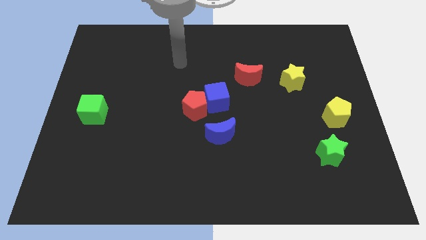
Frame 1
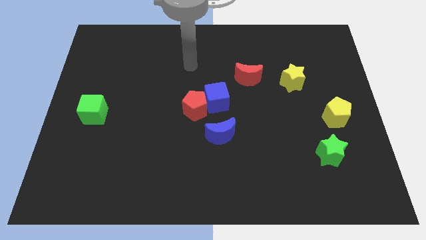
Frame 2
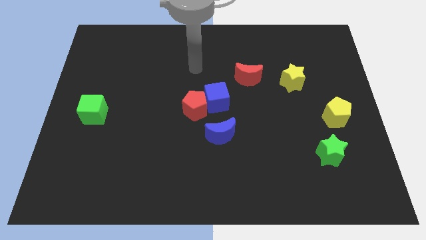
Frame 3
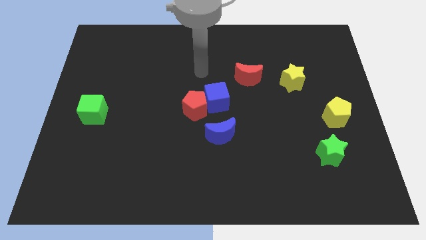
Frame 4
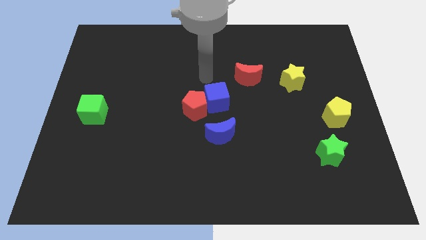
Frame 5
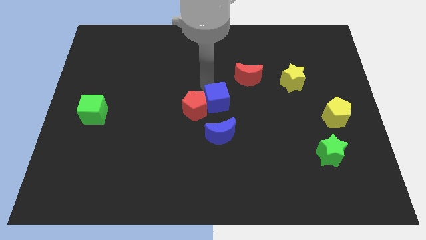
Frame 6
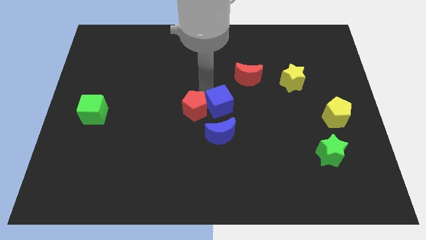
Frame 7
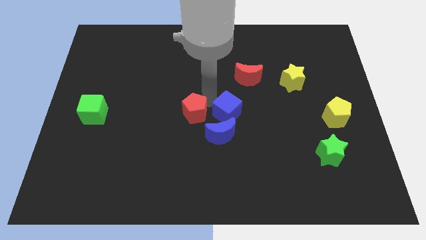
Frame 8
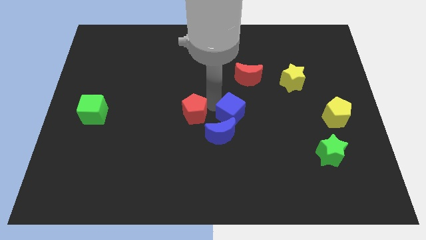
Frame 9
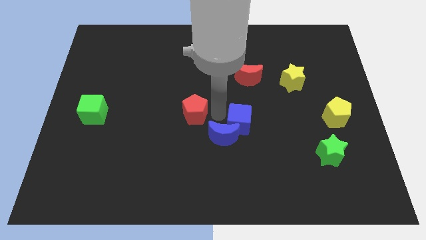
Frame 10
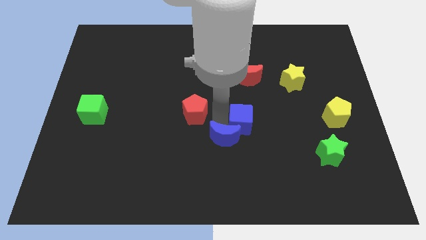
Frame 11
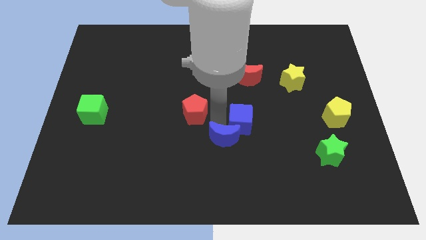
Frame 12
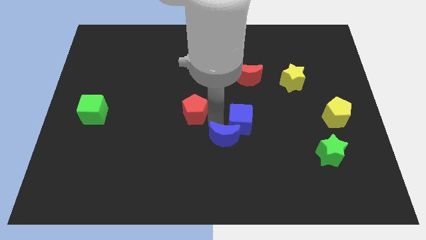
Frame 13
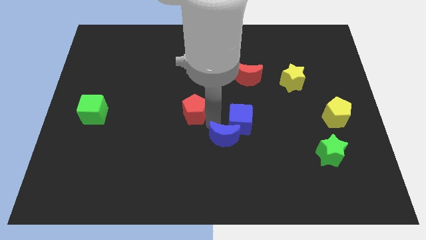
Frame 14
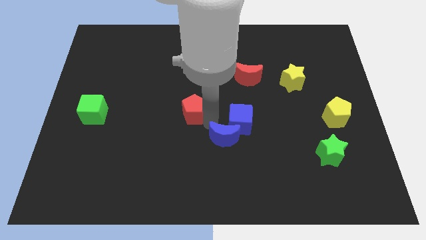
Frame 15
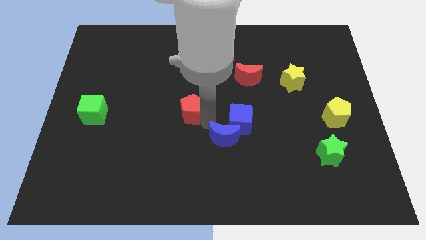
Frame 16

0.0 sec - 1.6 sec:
separate the red pentagon from the blue cube and blue moon

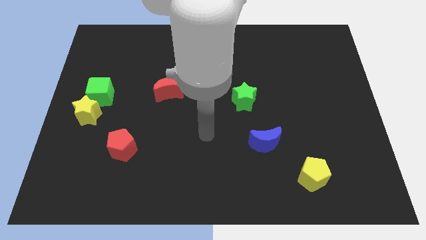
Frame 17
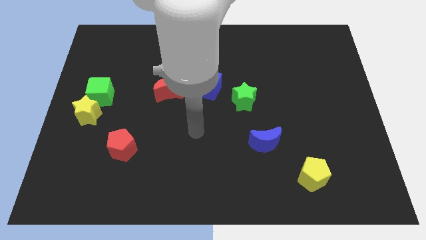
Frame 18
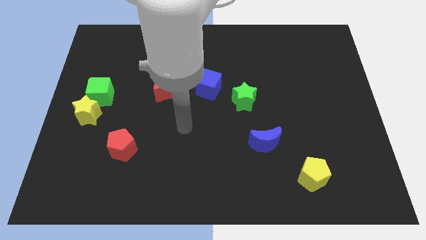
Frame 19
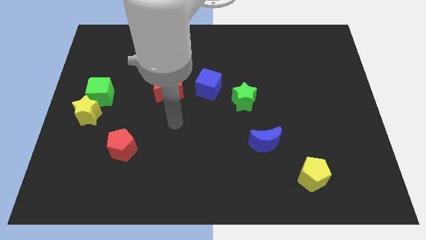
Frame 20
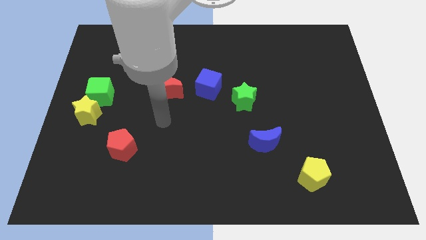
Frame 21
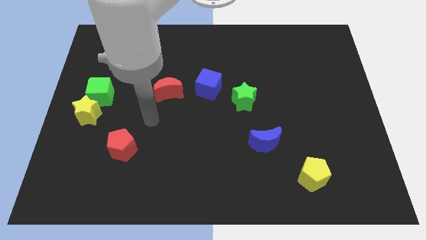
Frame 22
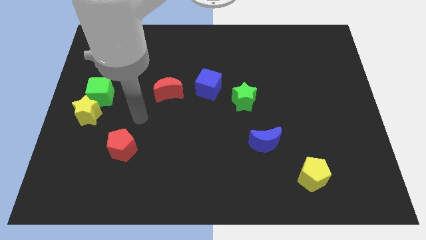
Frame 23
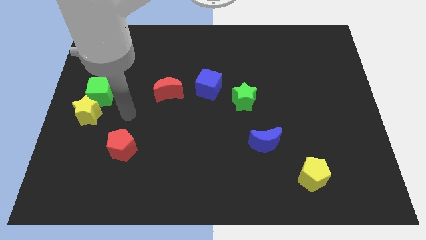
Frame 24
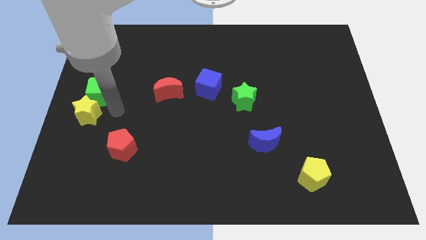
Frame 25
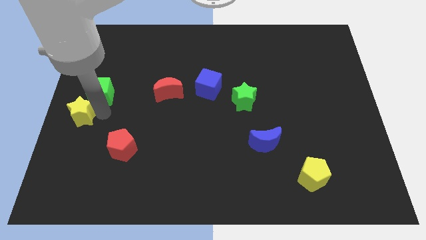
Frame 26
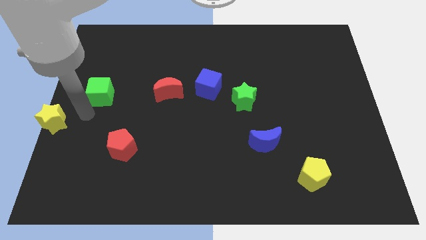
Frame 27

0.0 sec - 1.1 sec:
move the green cube away from the yellow star

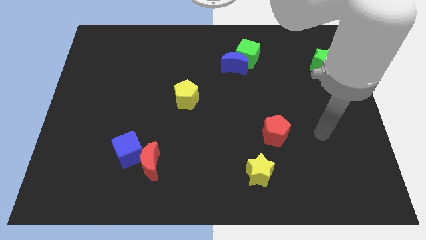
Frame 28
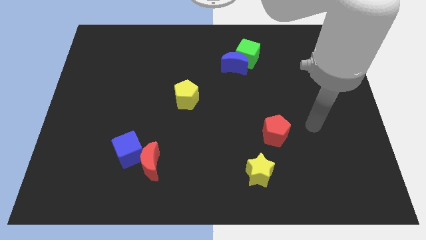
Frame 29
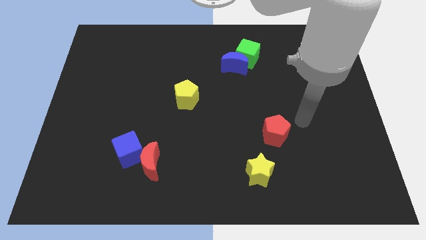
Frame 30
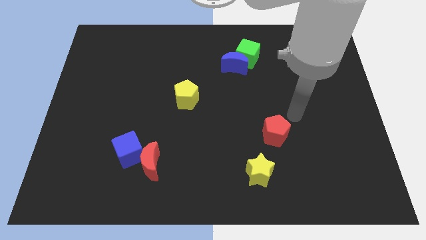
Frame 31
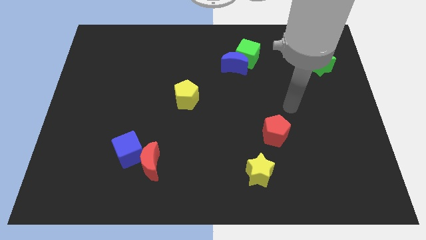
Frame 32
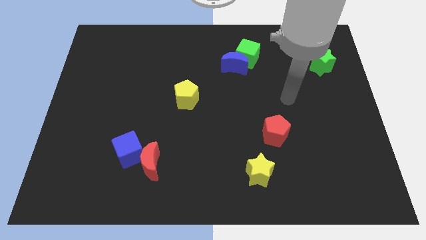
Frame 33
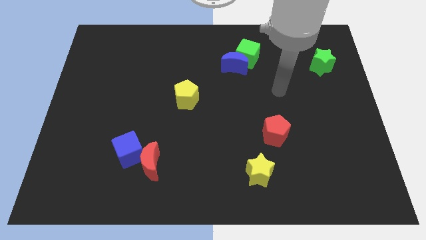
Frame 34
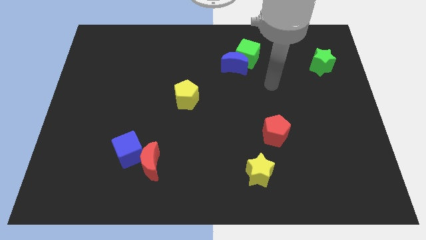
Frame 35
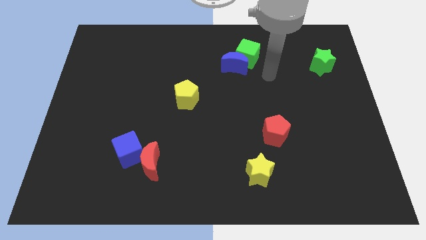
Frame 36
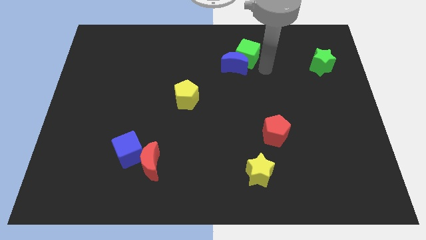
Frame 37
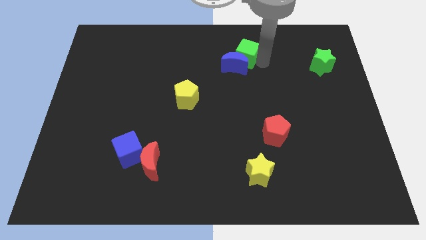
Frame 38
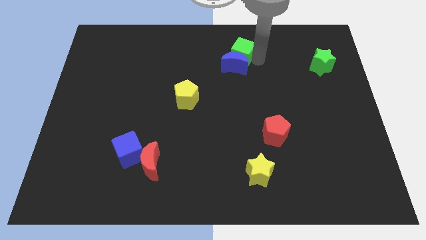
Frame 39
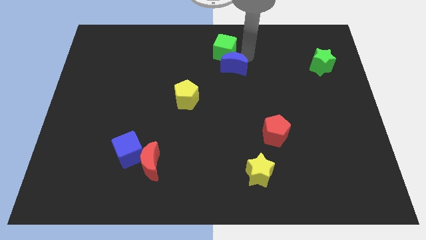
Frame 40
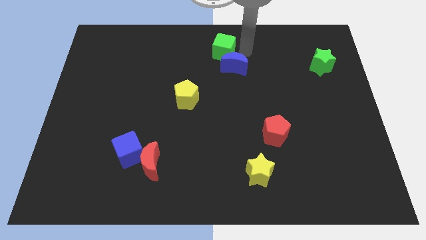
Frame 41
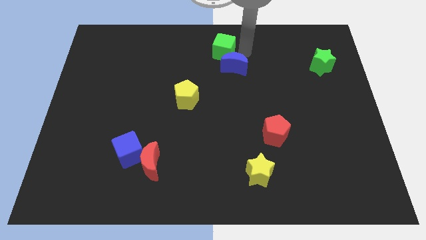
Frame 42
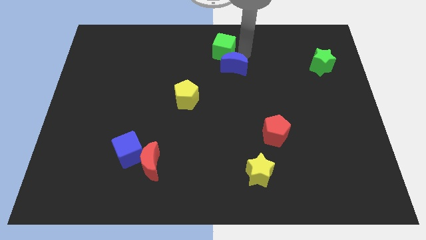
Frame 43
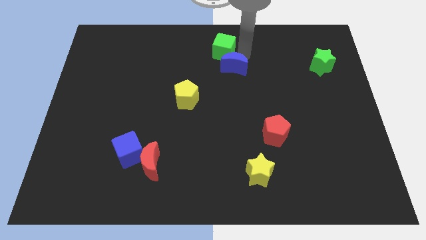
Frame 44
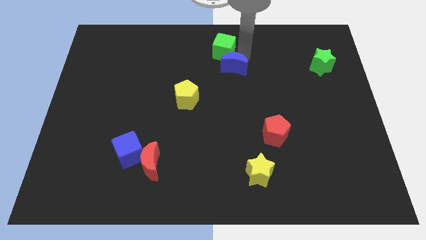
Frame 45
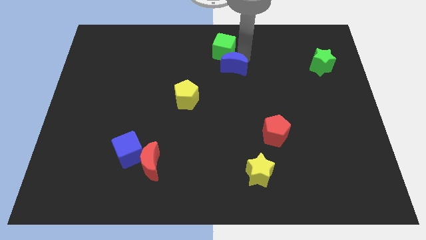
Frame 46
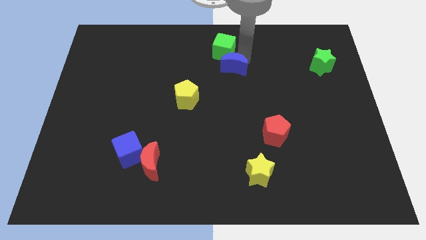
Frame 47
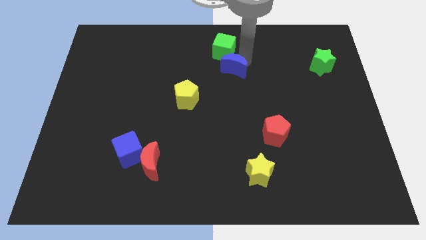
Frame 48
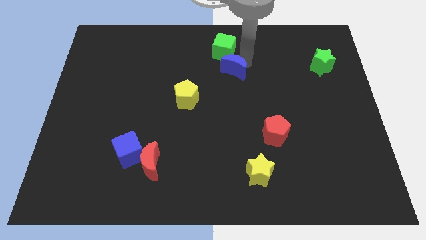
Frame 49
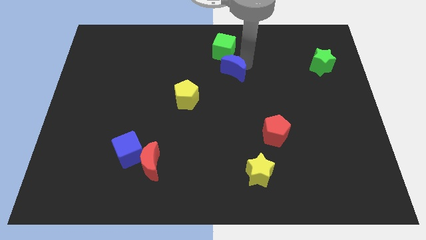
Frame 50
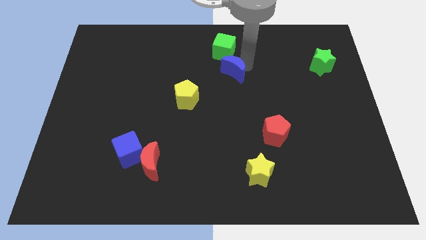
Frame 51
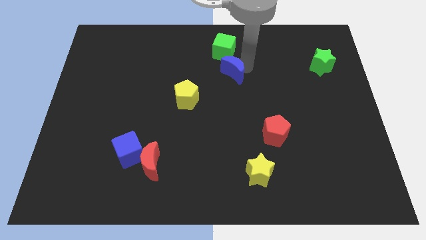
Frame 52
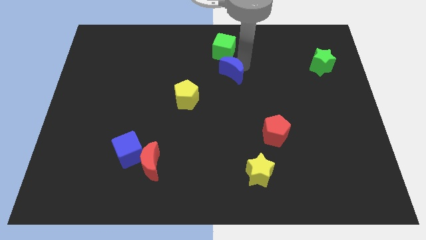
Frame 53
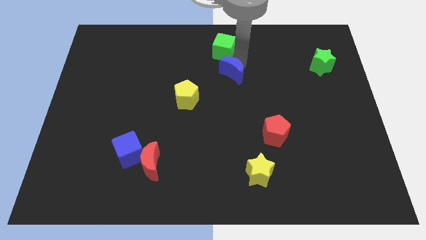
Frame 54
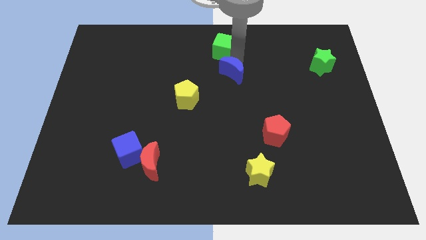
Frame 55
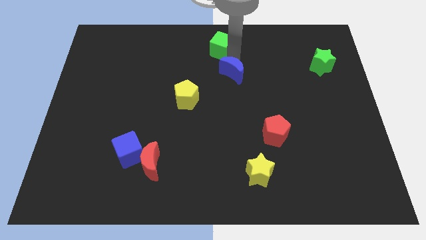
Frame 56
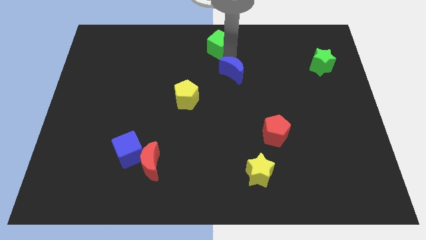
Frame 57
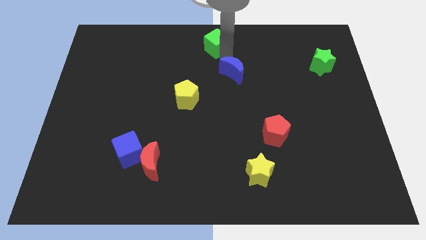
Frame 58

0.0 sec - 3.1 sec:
move the blue moon away from the green cube

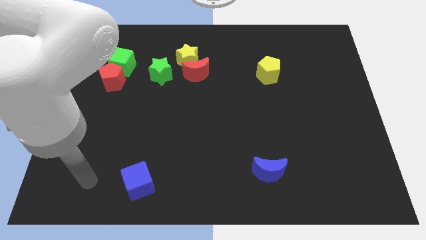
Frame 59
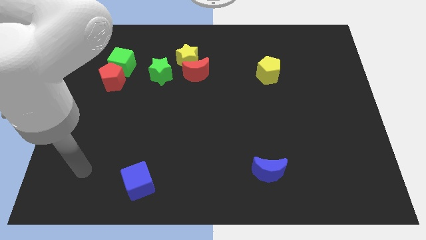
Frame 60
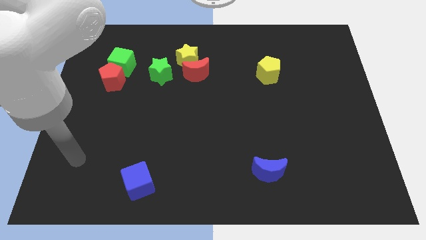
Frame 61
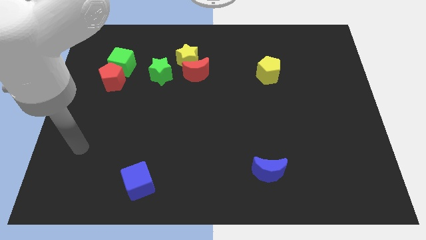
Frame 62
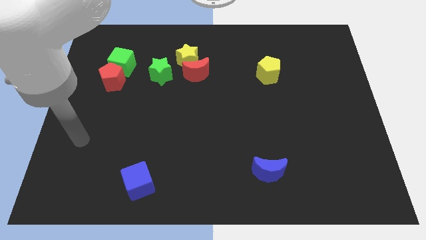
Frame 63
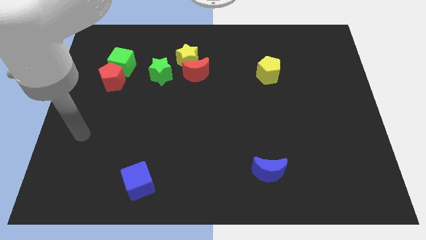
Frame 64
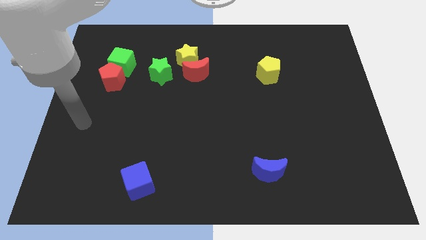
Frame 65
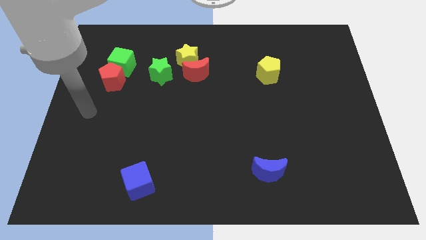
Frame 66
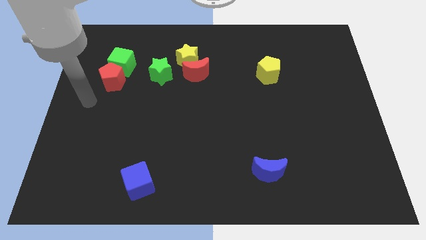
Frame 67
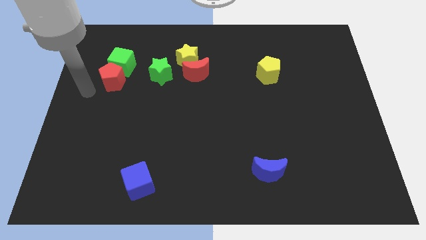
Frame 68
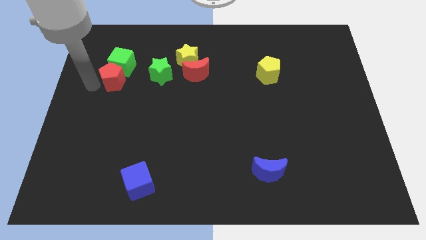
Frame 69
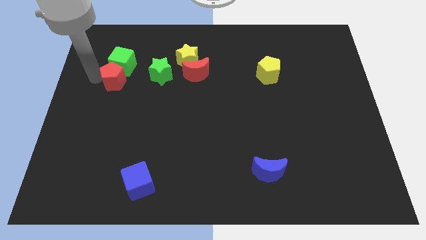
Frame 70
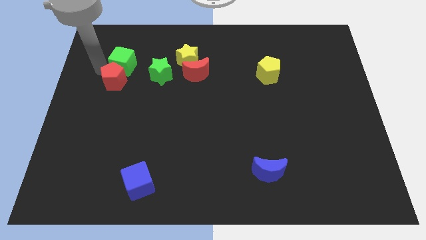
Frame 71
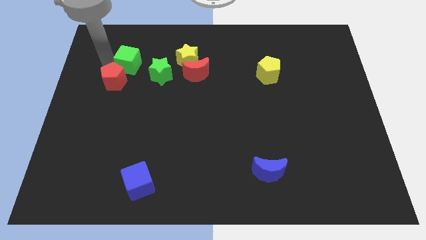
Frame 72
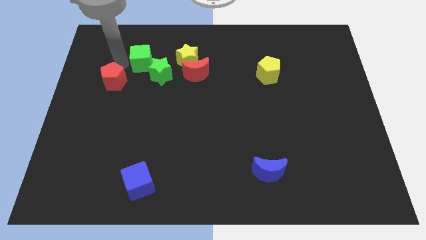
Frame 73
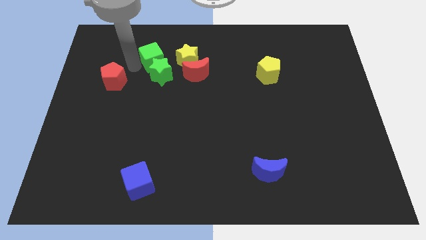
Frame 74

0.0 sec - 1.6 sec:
move the red pentagon away from the green cube

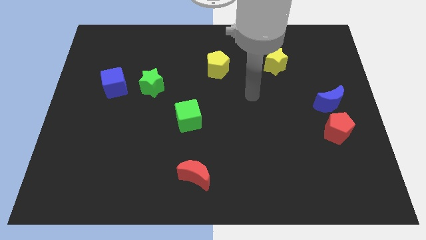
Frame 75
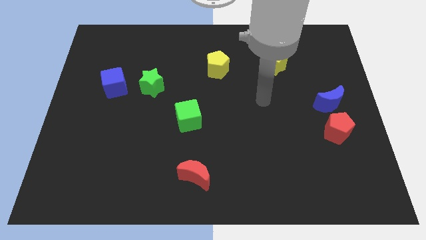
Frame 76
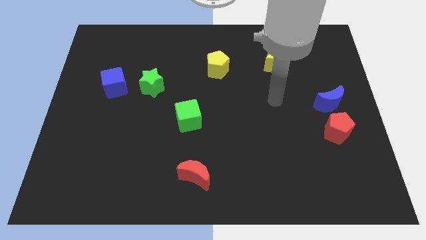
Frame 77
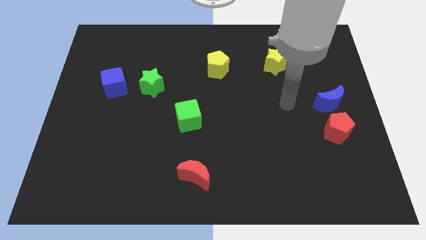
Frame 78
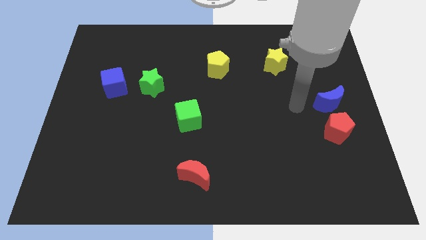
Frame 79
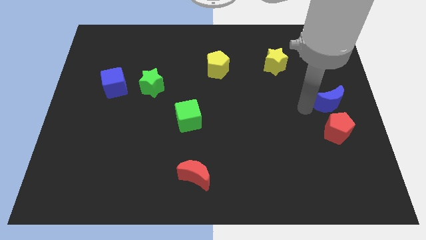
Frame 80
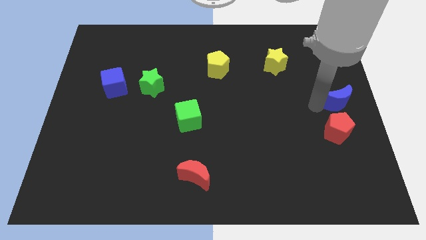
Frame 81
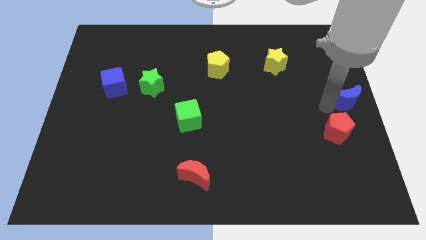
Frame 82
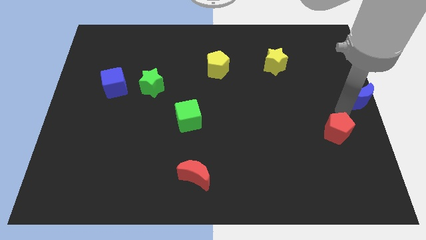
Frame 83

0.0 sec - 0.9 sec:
pull the red pentagon apart from the blue moon

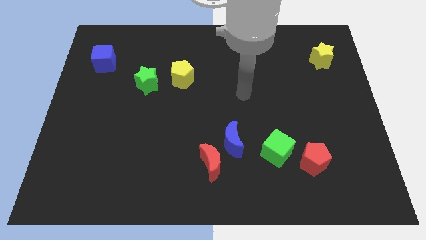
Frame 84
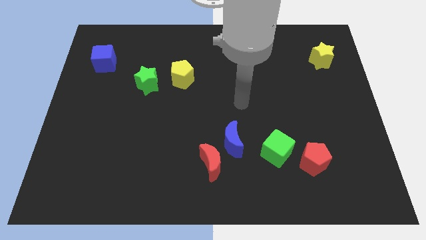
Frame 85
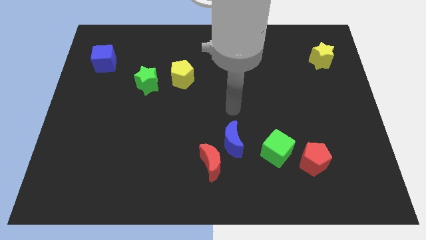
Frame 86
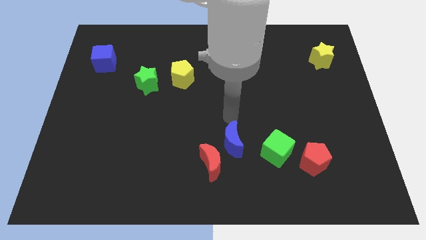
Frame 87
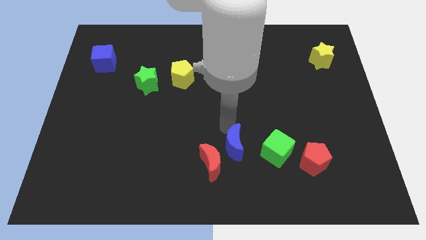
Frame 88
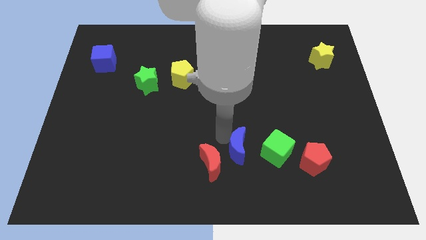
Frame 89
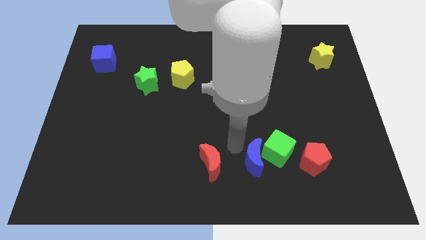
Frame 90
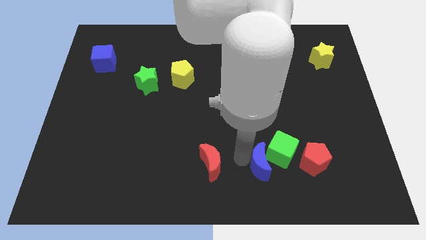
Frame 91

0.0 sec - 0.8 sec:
separate the red moon from the blue moon

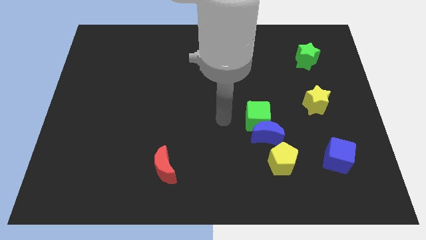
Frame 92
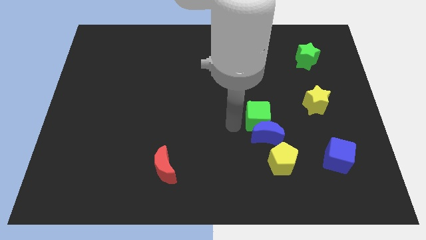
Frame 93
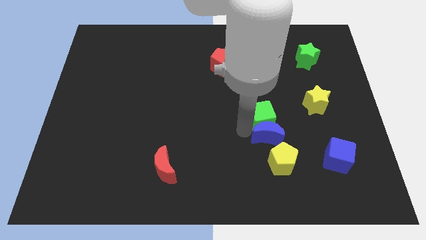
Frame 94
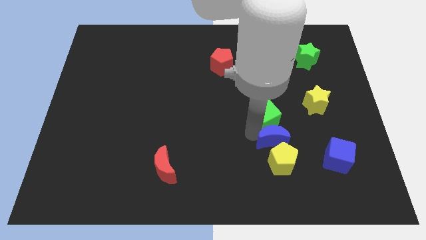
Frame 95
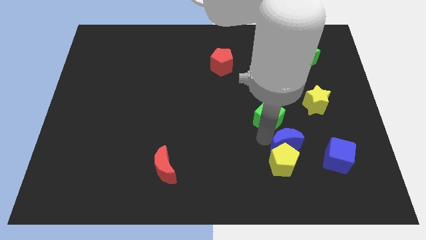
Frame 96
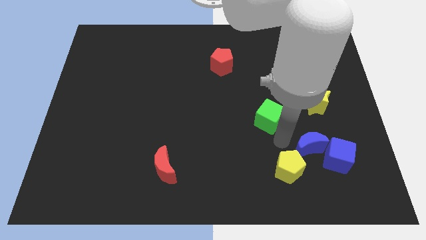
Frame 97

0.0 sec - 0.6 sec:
separate the green cube from the blue moon
